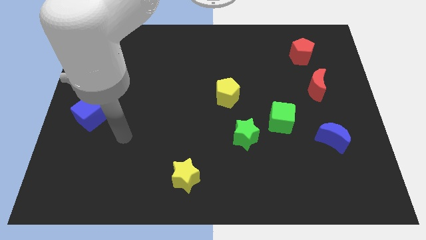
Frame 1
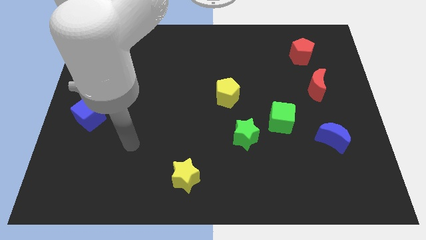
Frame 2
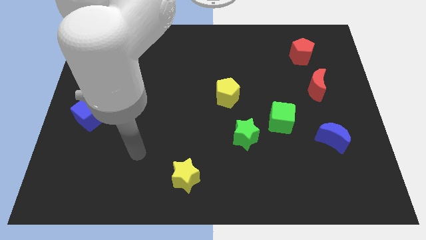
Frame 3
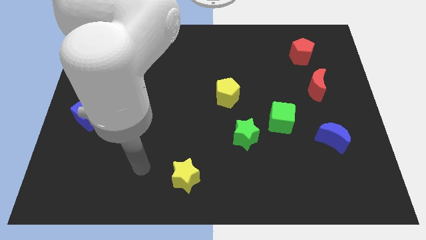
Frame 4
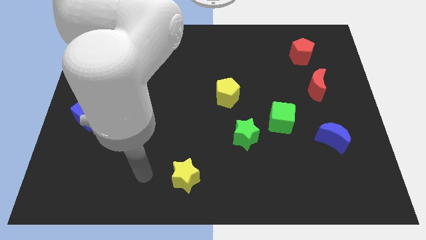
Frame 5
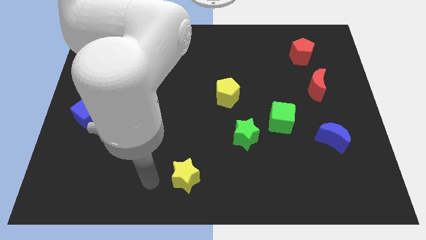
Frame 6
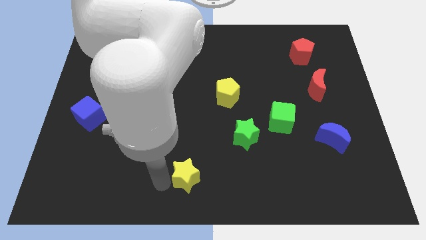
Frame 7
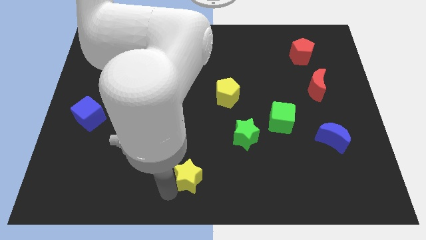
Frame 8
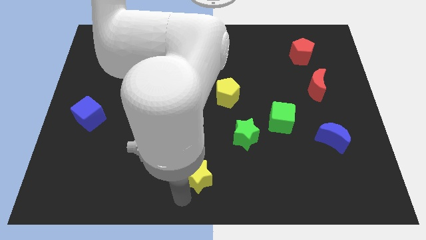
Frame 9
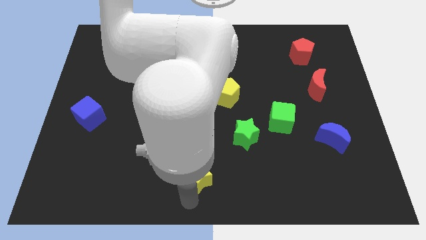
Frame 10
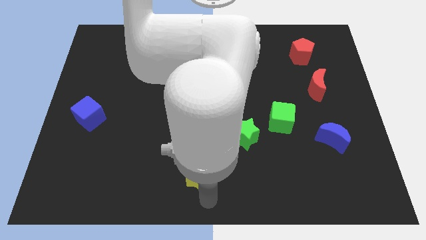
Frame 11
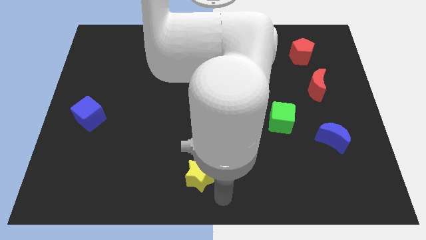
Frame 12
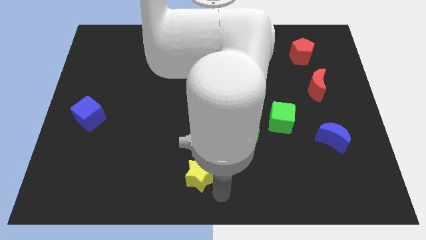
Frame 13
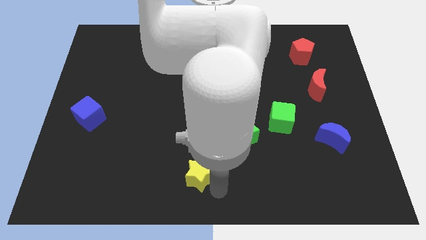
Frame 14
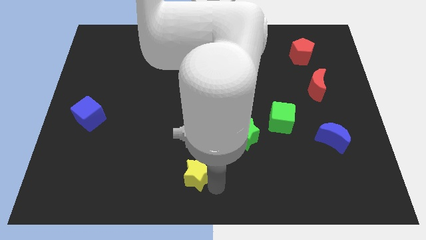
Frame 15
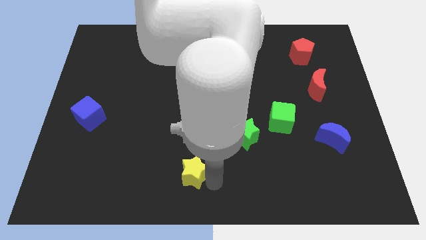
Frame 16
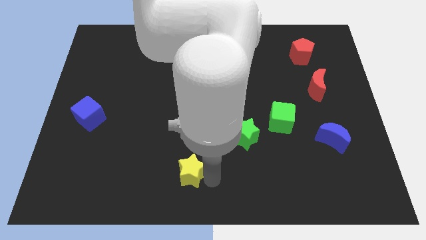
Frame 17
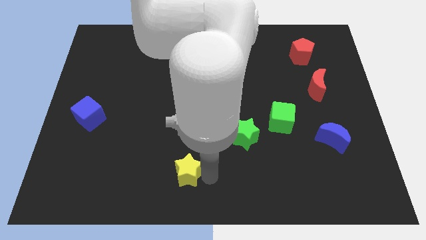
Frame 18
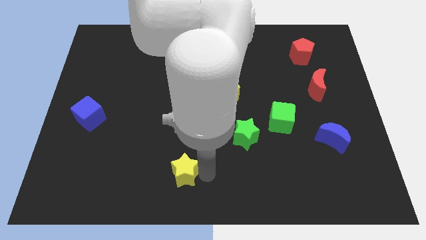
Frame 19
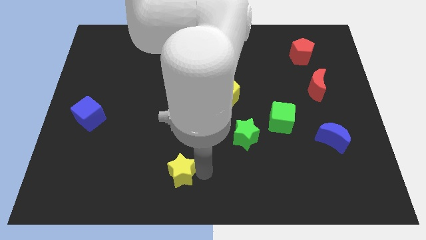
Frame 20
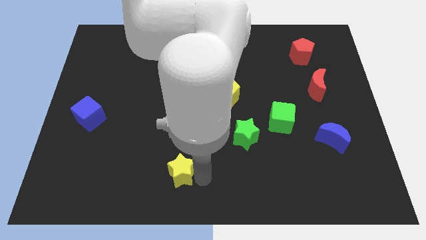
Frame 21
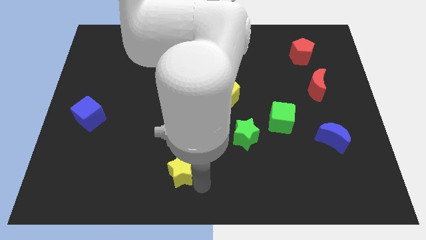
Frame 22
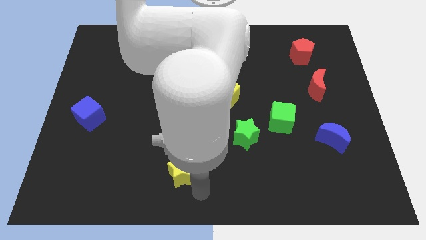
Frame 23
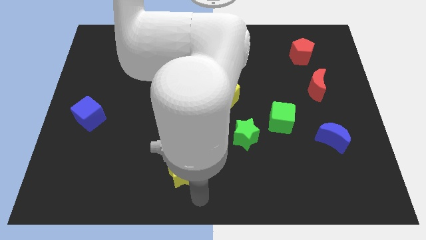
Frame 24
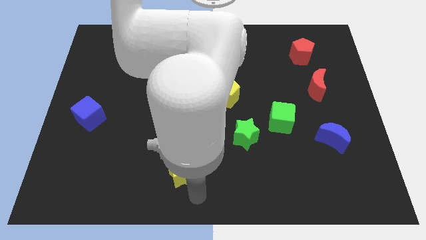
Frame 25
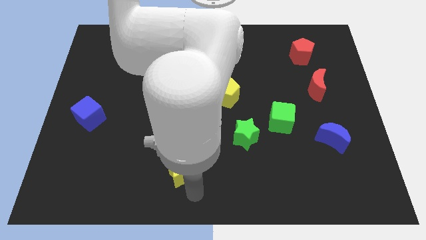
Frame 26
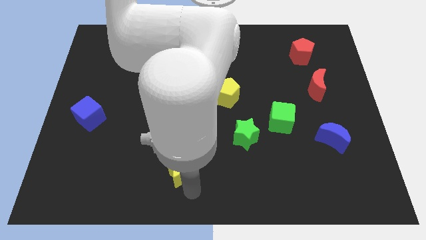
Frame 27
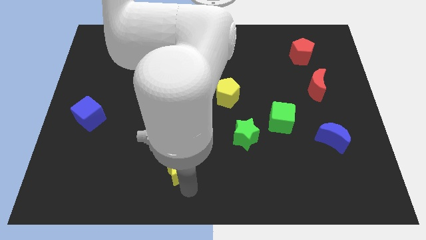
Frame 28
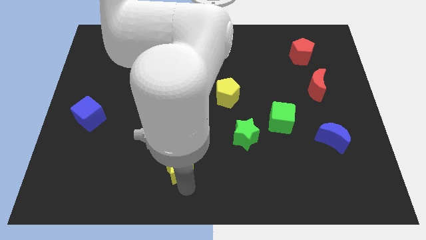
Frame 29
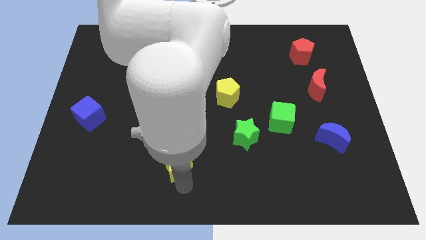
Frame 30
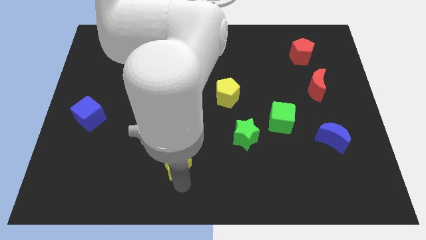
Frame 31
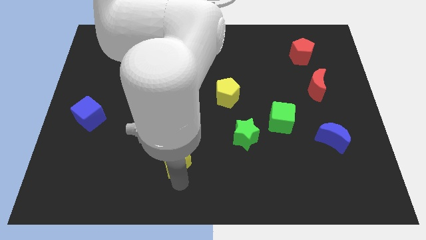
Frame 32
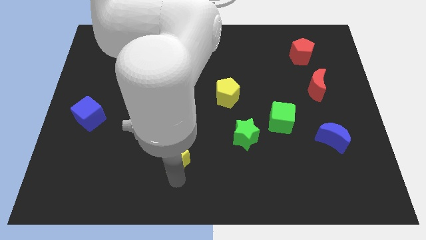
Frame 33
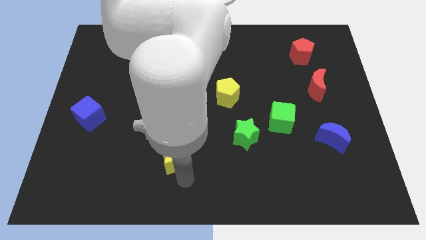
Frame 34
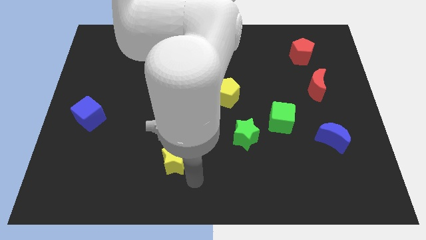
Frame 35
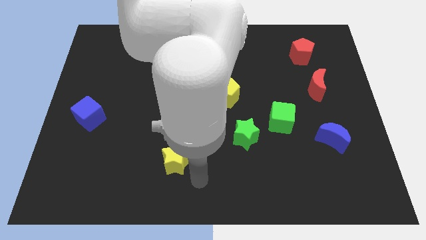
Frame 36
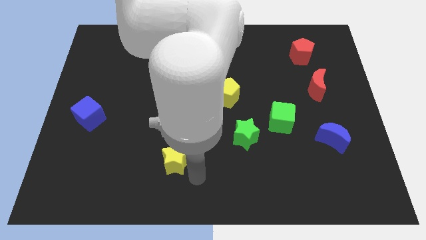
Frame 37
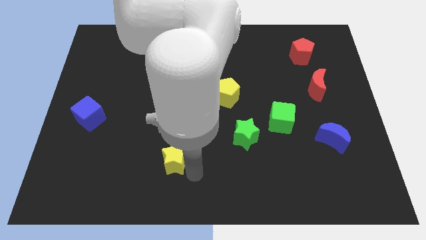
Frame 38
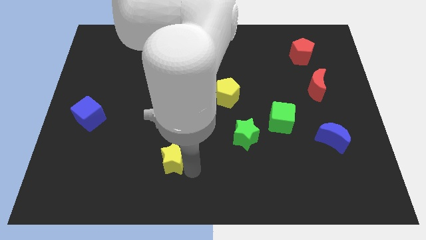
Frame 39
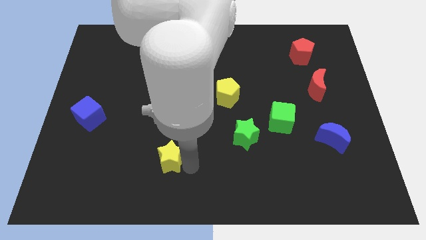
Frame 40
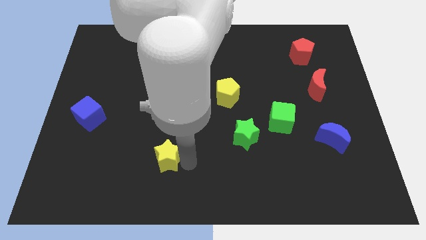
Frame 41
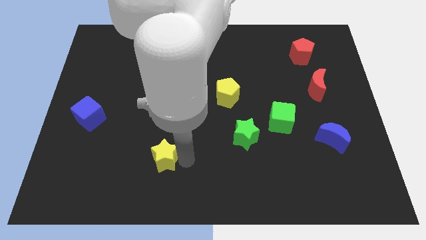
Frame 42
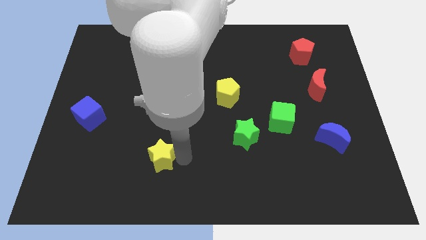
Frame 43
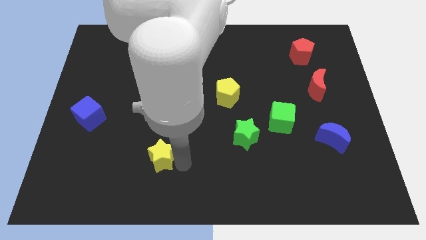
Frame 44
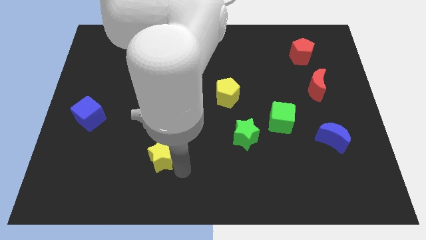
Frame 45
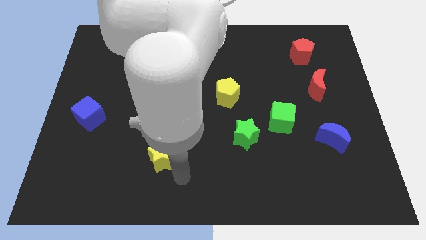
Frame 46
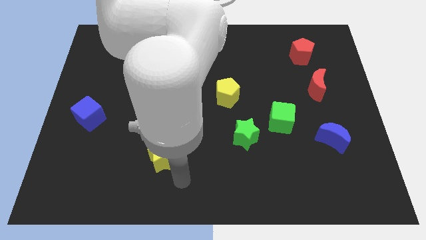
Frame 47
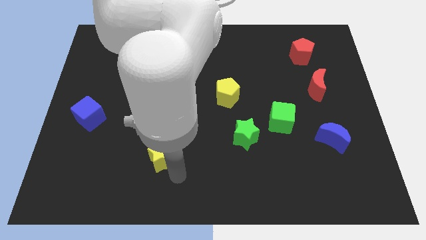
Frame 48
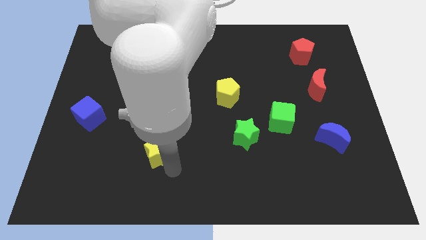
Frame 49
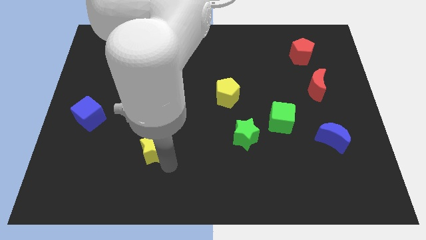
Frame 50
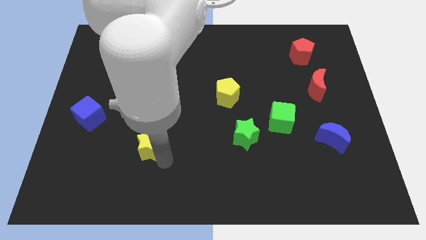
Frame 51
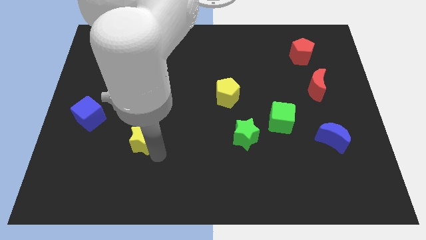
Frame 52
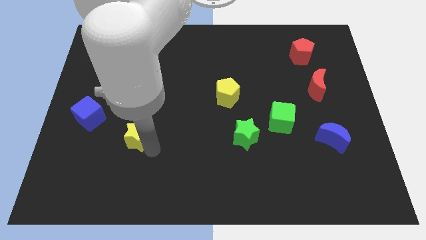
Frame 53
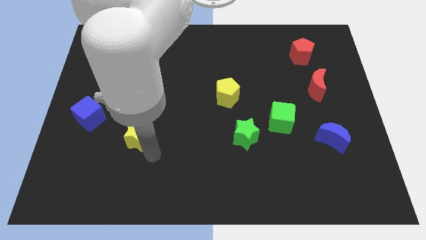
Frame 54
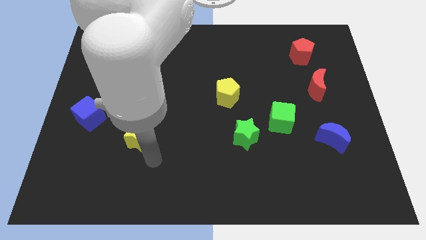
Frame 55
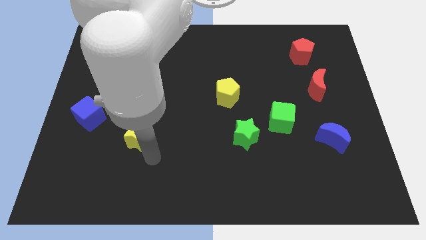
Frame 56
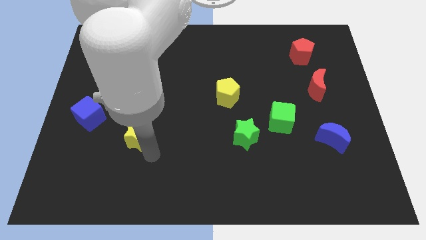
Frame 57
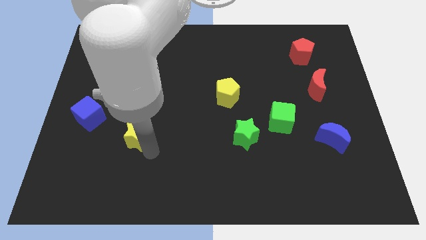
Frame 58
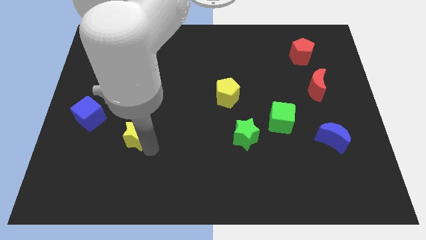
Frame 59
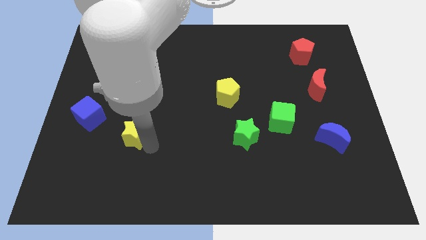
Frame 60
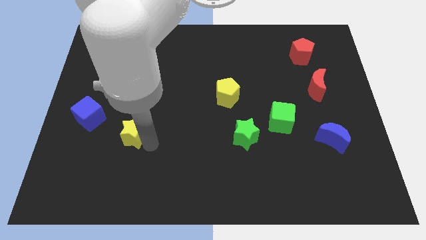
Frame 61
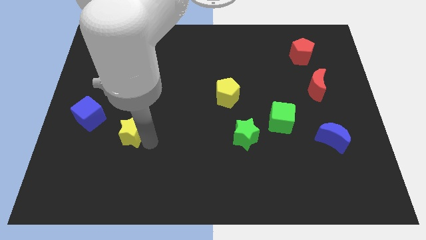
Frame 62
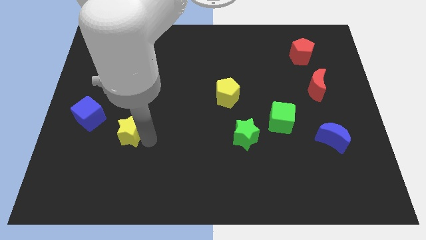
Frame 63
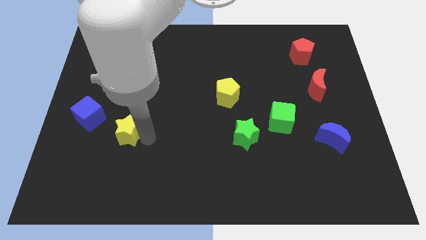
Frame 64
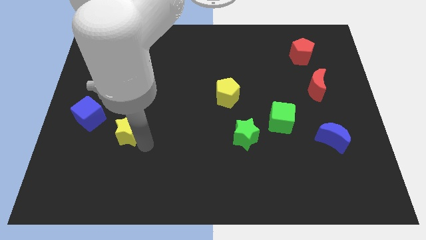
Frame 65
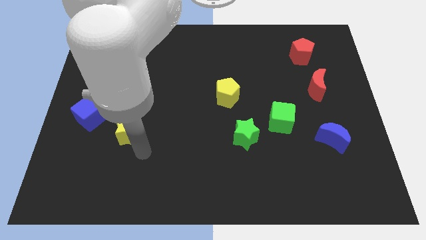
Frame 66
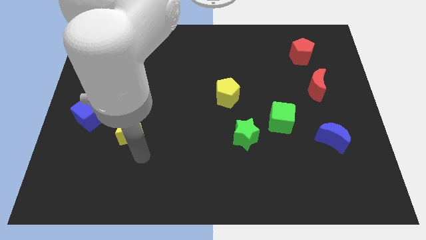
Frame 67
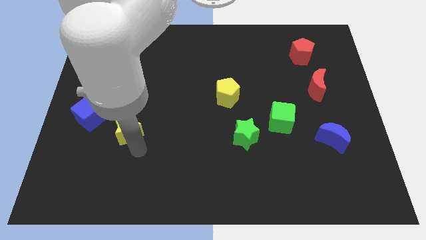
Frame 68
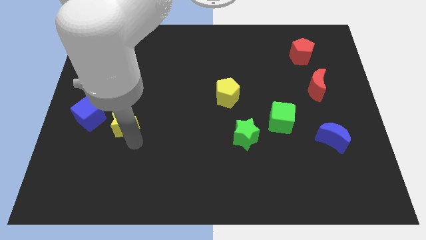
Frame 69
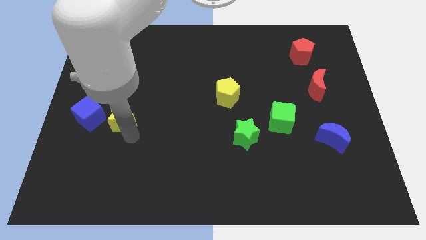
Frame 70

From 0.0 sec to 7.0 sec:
push the yellow star upwards and then to the left

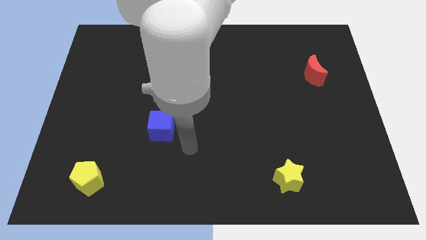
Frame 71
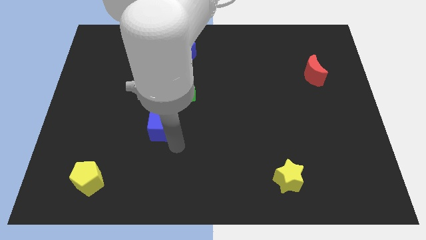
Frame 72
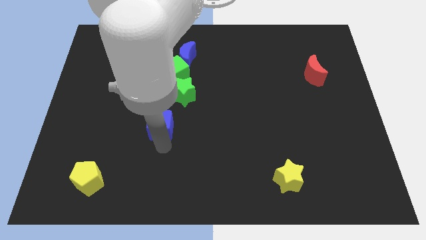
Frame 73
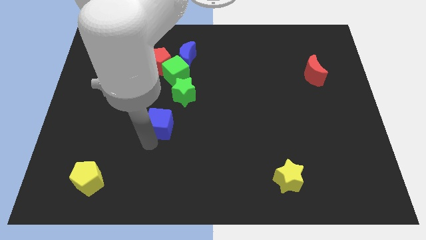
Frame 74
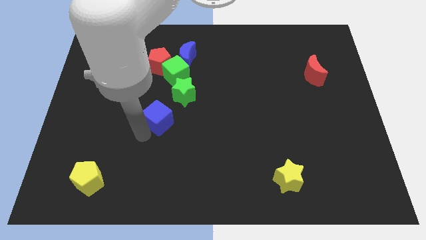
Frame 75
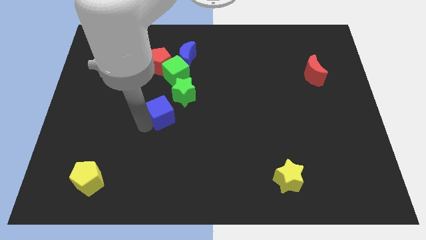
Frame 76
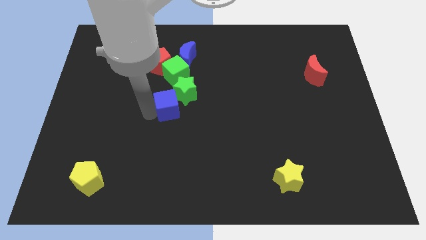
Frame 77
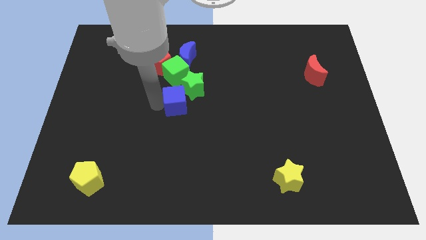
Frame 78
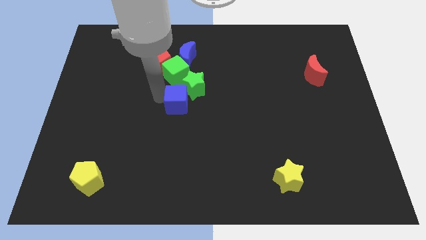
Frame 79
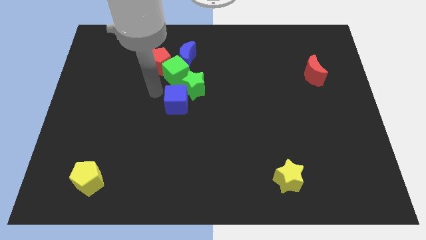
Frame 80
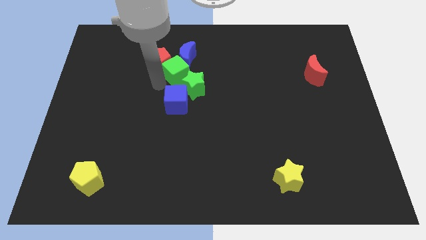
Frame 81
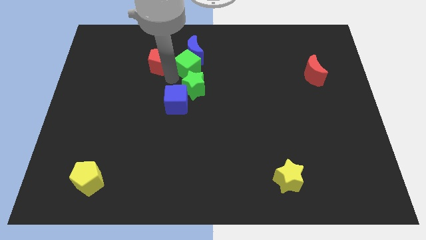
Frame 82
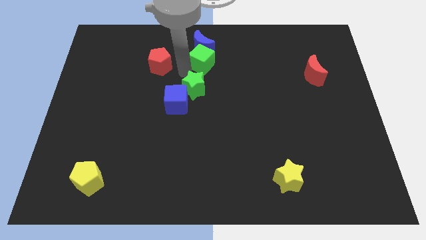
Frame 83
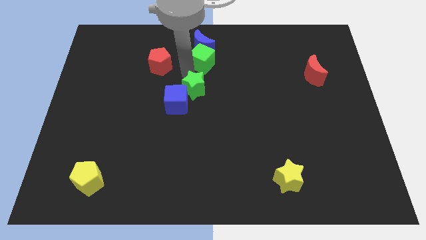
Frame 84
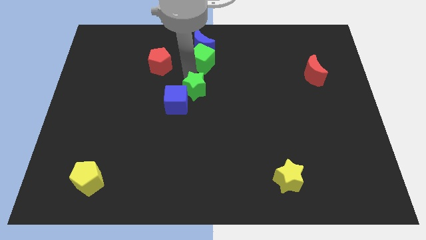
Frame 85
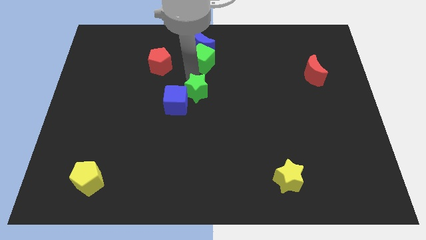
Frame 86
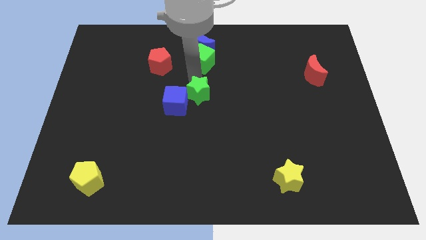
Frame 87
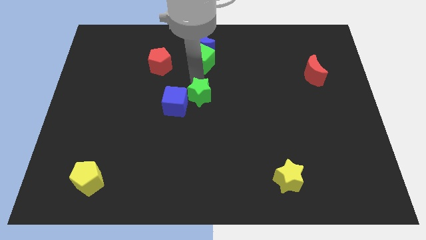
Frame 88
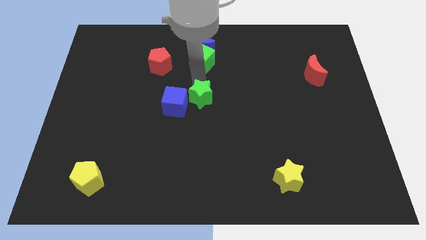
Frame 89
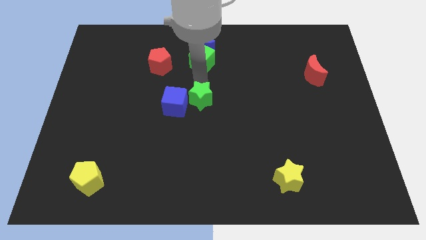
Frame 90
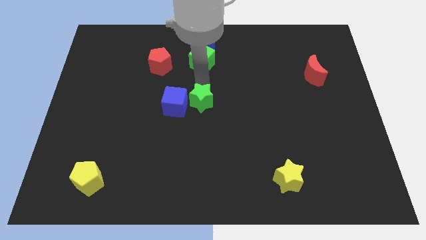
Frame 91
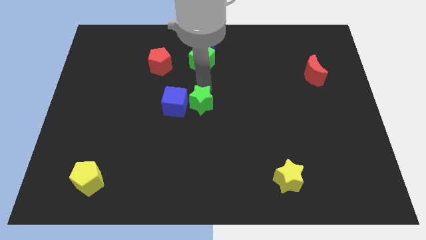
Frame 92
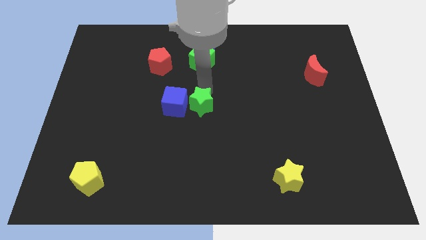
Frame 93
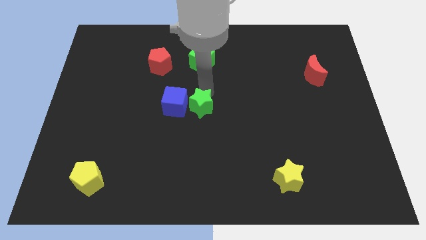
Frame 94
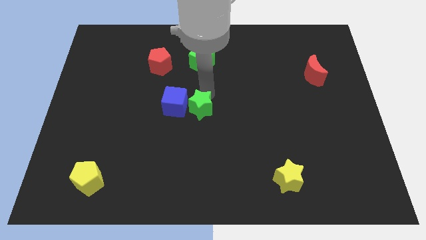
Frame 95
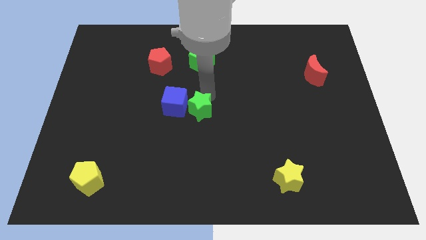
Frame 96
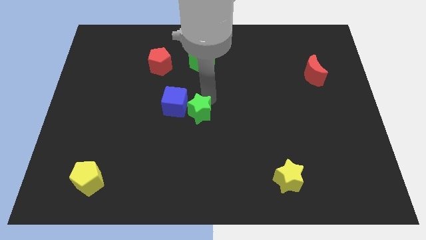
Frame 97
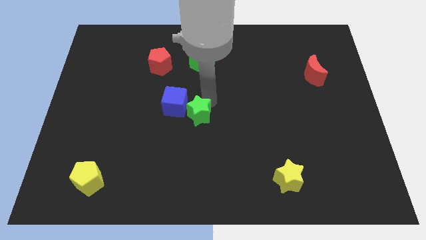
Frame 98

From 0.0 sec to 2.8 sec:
slide the green star diagonally down and right slightly
